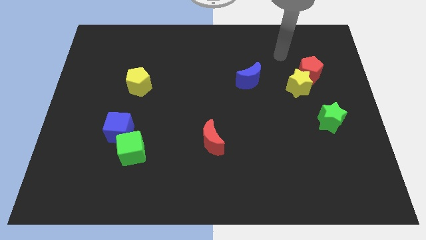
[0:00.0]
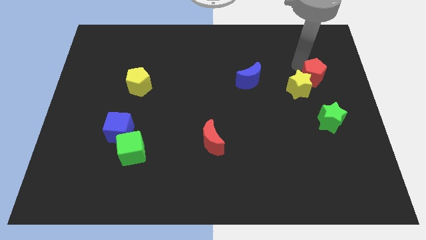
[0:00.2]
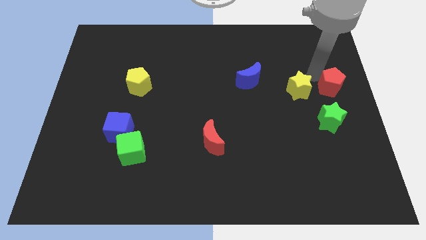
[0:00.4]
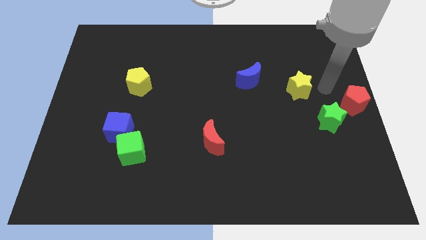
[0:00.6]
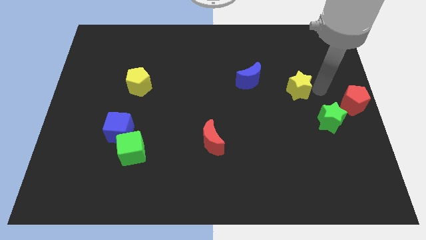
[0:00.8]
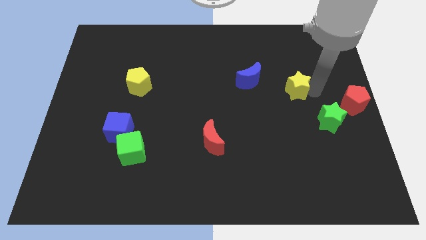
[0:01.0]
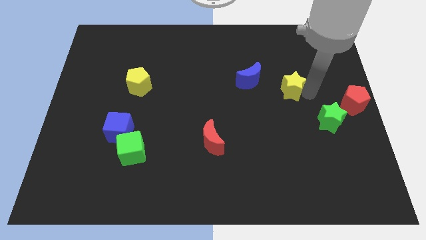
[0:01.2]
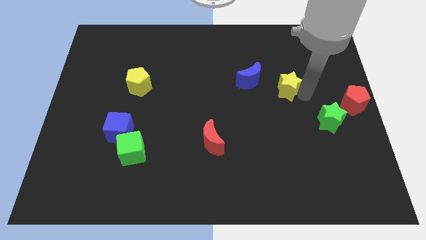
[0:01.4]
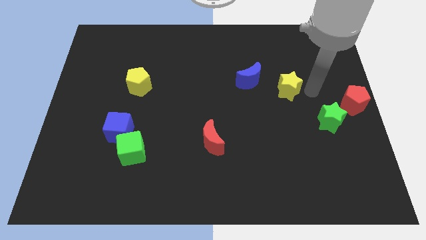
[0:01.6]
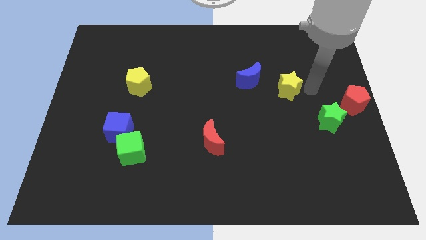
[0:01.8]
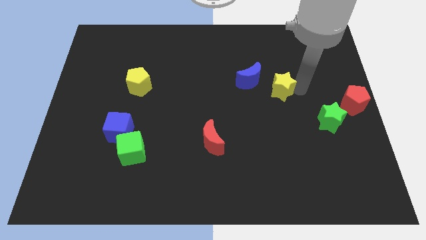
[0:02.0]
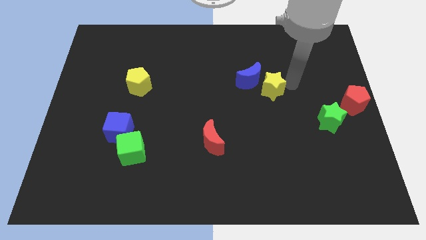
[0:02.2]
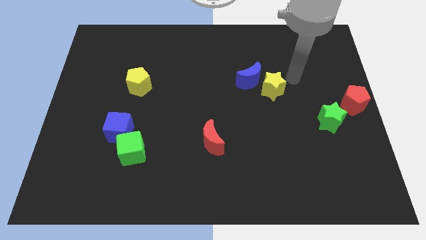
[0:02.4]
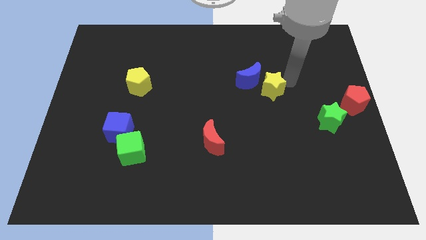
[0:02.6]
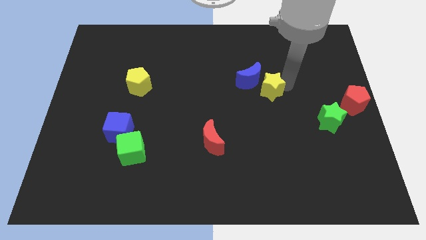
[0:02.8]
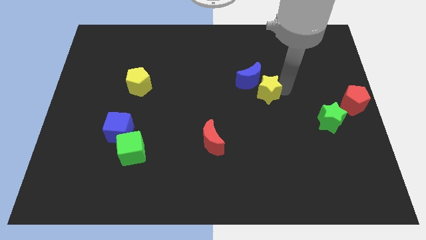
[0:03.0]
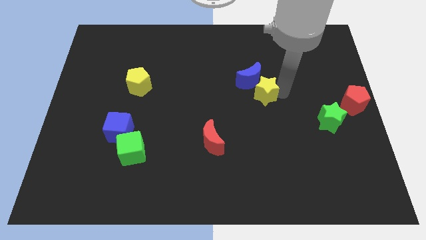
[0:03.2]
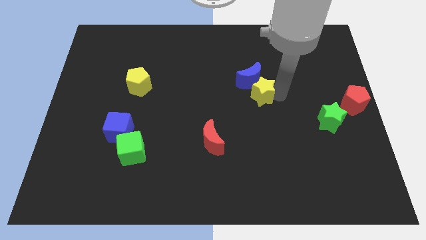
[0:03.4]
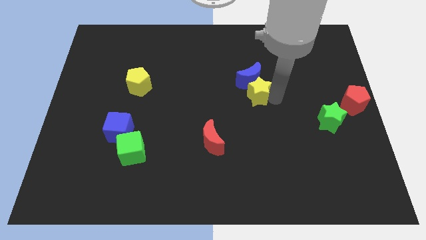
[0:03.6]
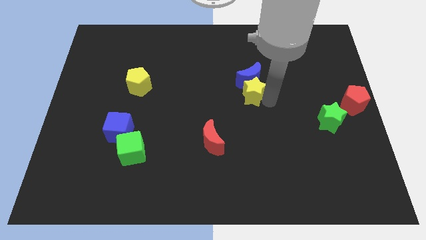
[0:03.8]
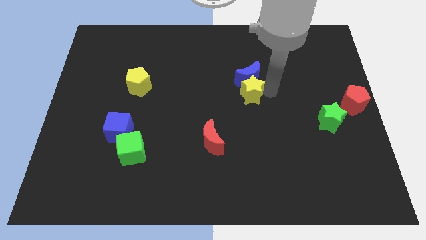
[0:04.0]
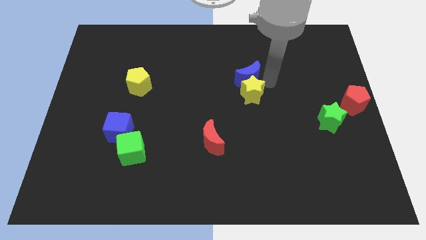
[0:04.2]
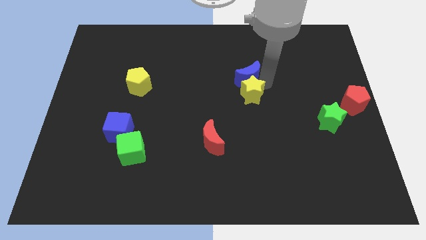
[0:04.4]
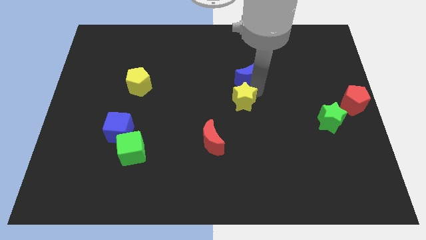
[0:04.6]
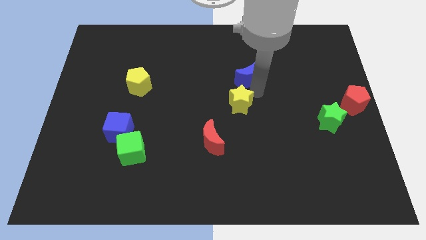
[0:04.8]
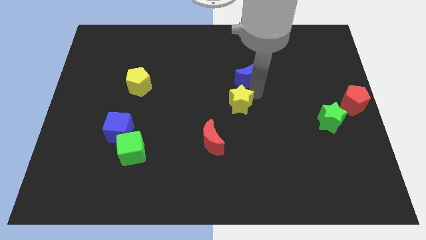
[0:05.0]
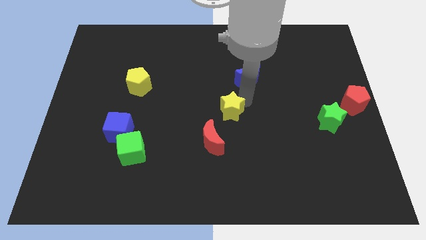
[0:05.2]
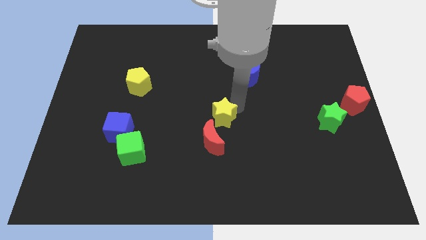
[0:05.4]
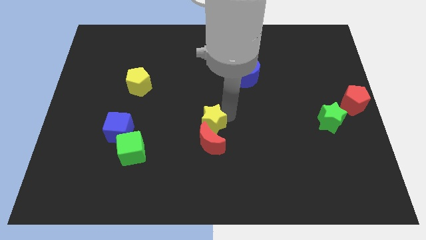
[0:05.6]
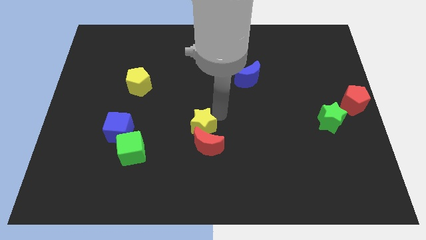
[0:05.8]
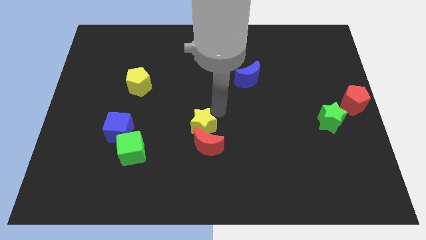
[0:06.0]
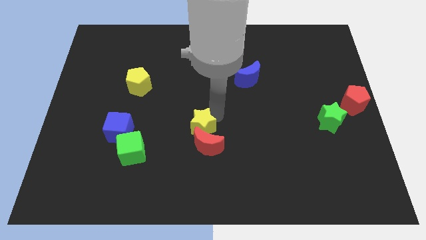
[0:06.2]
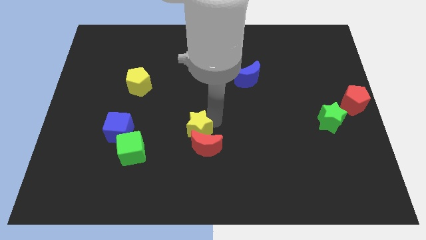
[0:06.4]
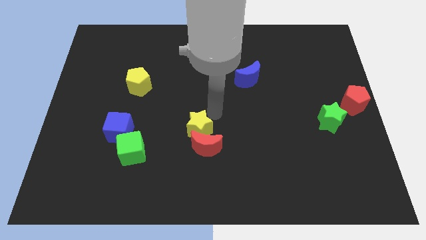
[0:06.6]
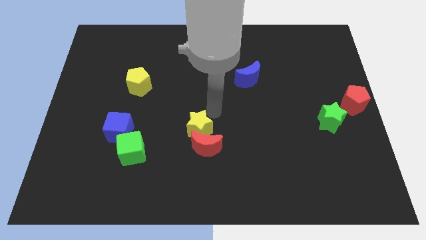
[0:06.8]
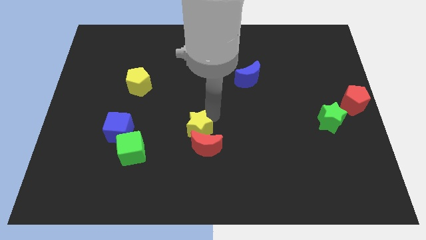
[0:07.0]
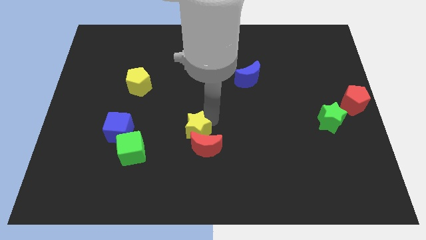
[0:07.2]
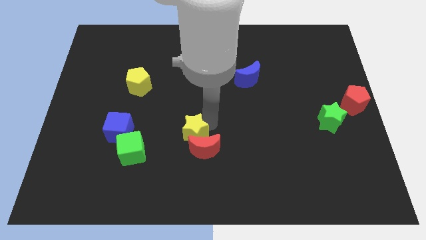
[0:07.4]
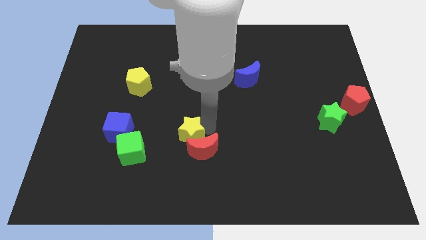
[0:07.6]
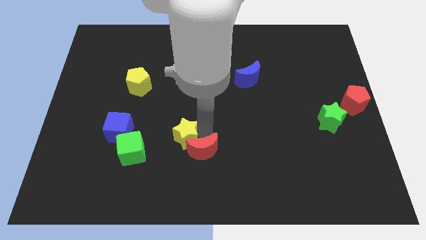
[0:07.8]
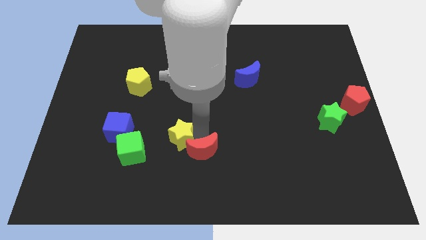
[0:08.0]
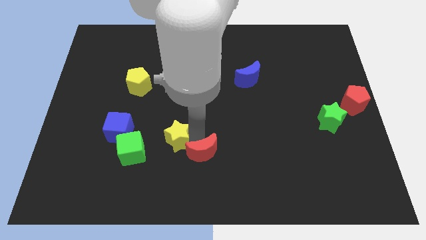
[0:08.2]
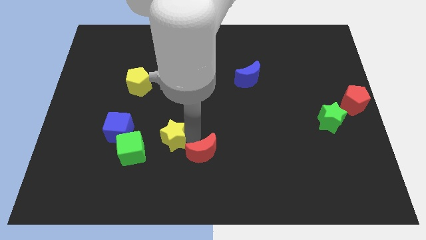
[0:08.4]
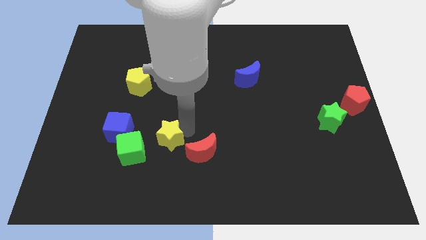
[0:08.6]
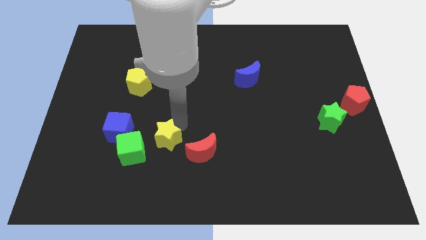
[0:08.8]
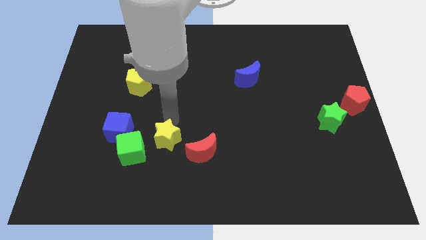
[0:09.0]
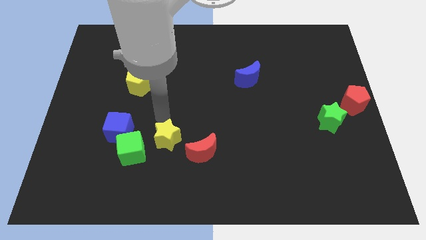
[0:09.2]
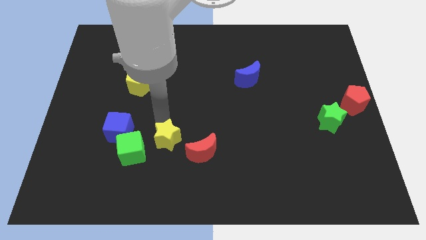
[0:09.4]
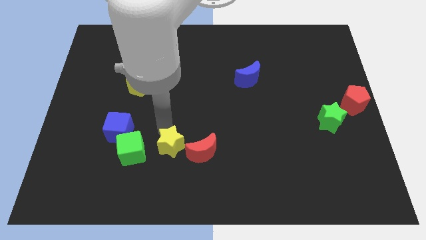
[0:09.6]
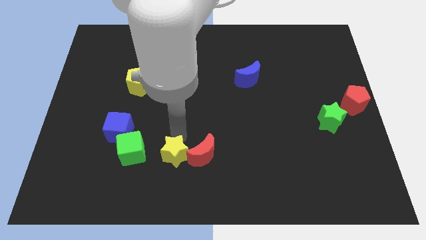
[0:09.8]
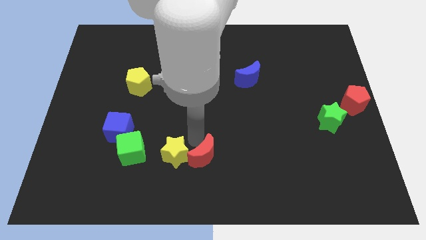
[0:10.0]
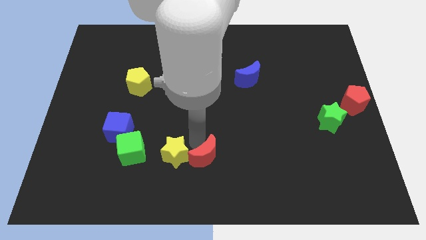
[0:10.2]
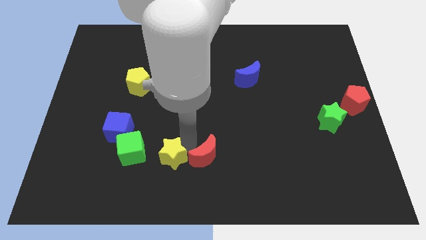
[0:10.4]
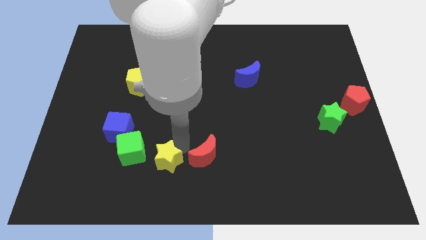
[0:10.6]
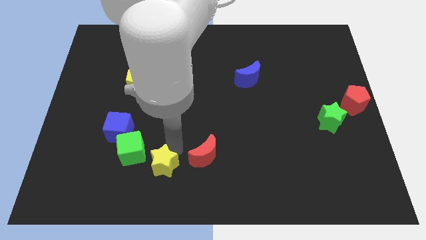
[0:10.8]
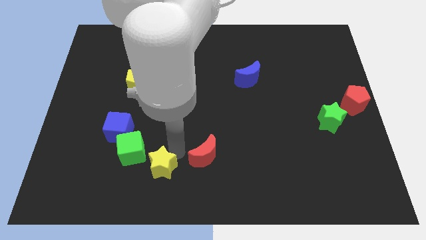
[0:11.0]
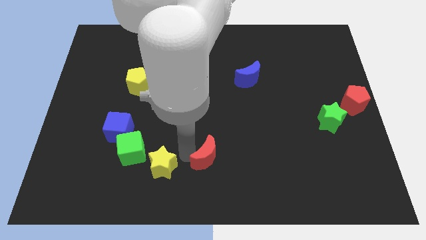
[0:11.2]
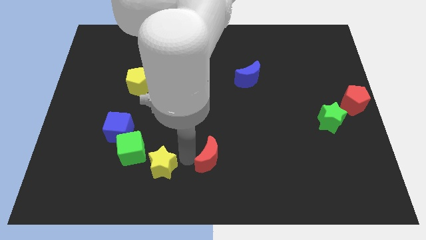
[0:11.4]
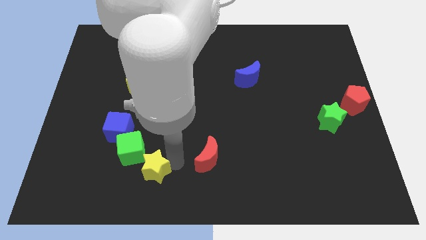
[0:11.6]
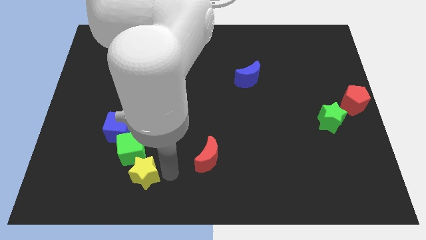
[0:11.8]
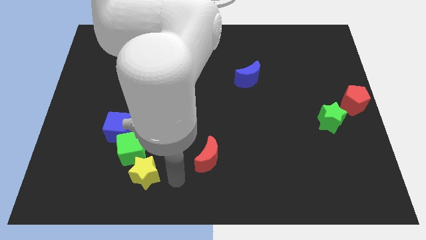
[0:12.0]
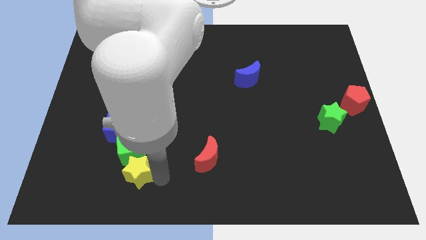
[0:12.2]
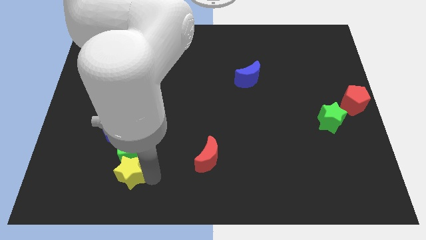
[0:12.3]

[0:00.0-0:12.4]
put the yellow star below the blue cube
